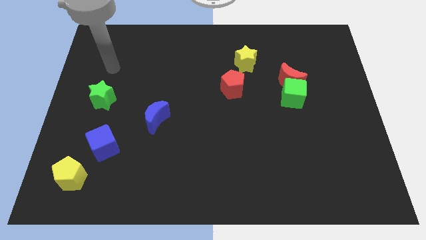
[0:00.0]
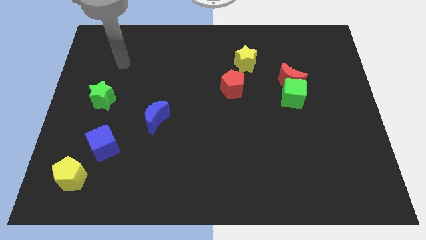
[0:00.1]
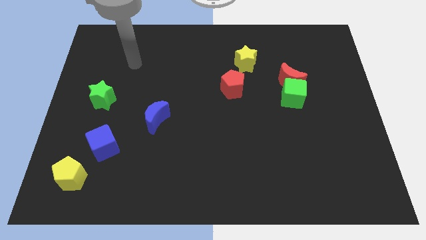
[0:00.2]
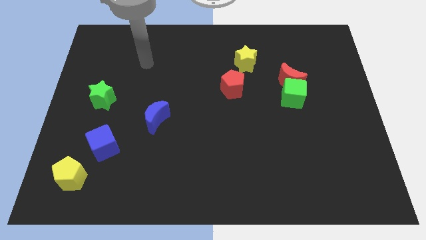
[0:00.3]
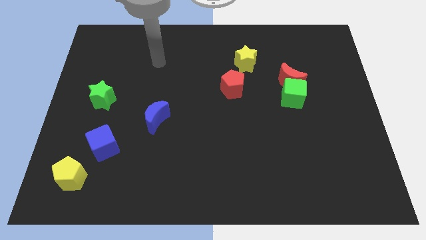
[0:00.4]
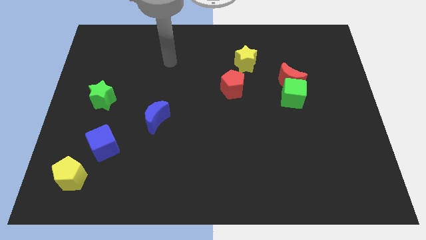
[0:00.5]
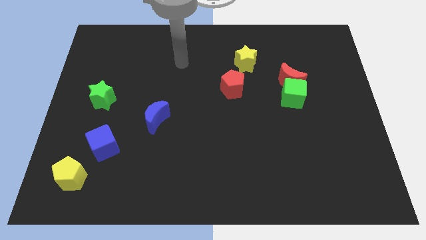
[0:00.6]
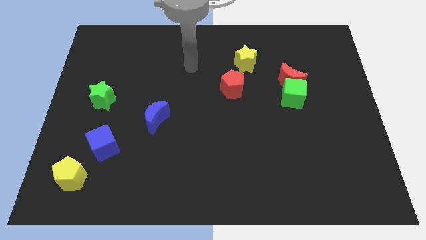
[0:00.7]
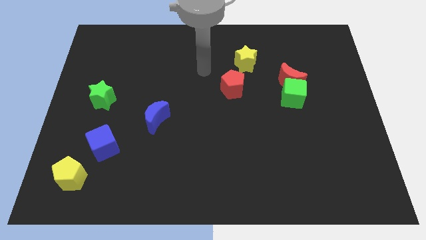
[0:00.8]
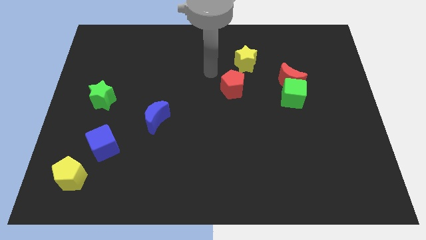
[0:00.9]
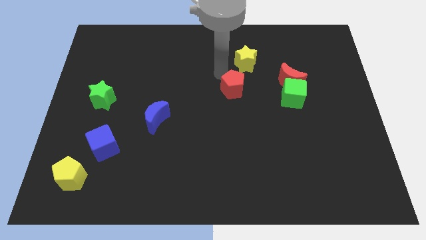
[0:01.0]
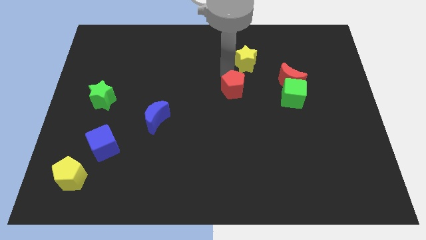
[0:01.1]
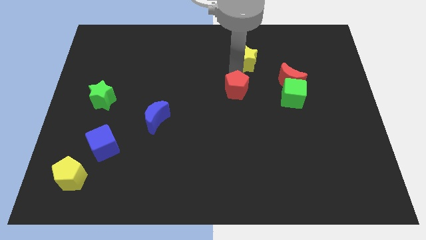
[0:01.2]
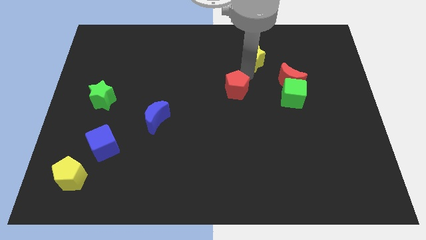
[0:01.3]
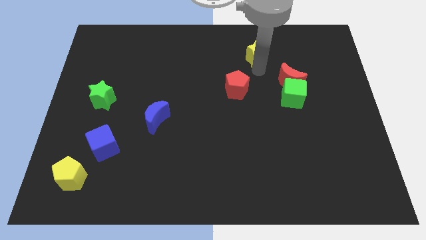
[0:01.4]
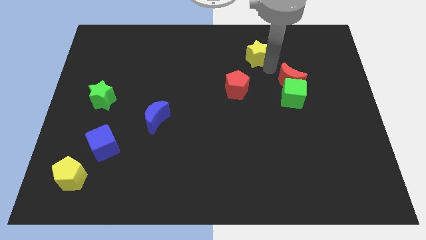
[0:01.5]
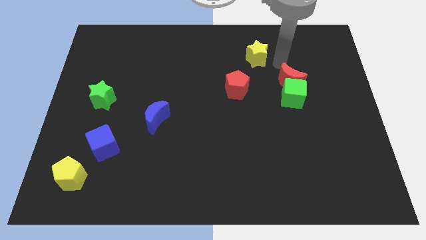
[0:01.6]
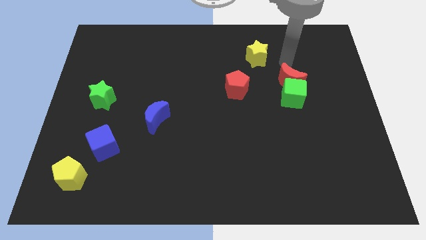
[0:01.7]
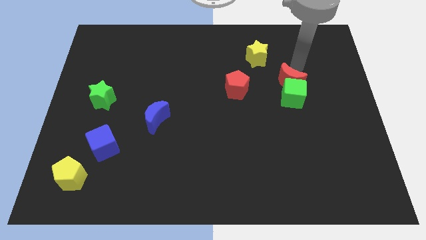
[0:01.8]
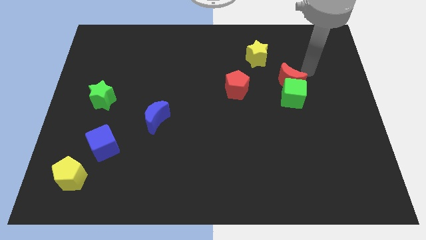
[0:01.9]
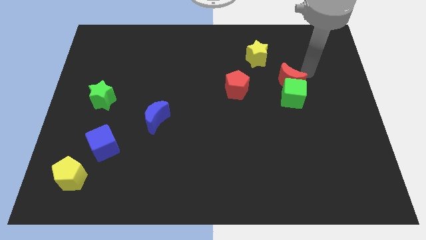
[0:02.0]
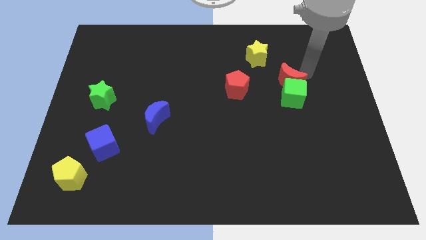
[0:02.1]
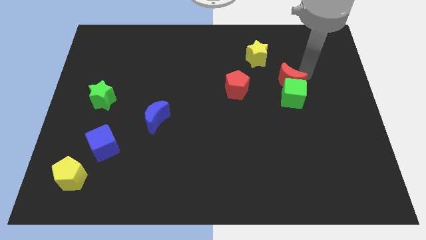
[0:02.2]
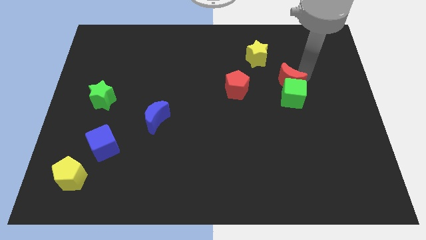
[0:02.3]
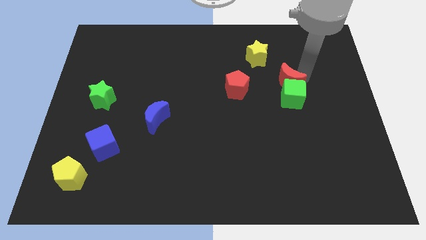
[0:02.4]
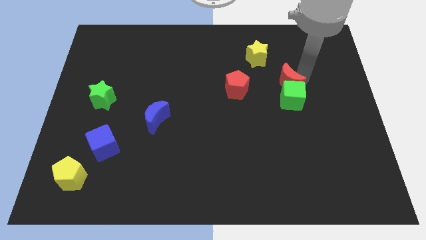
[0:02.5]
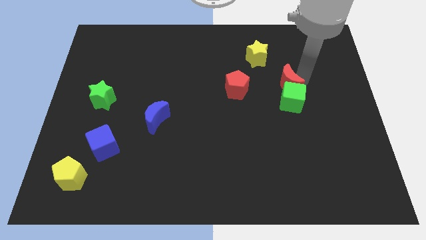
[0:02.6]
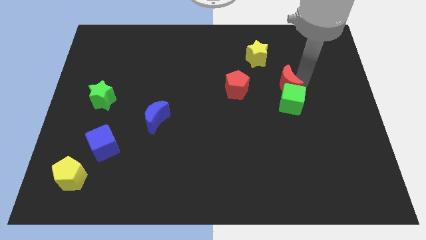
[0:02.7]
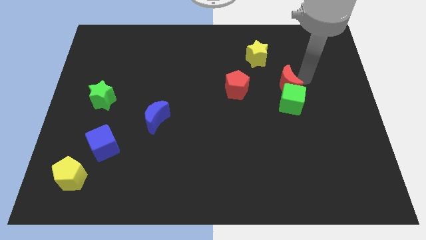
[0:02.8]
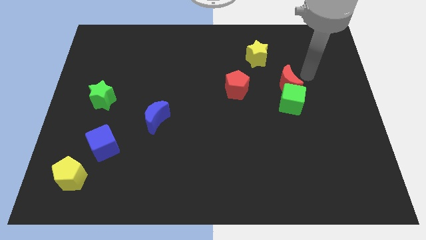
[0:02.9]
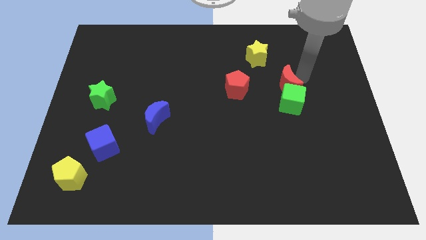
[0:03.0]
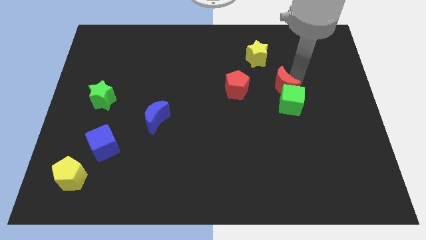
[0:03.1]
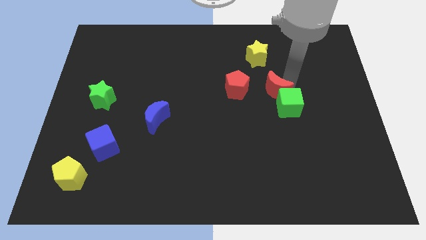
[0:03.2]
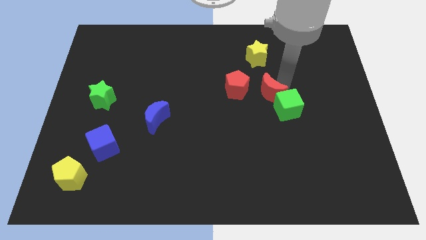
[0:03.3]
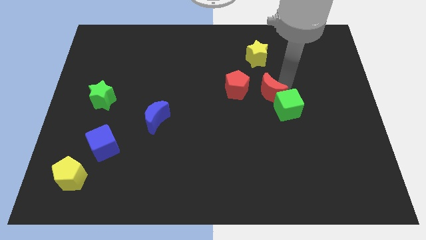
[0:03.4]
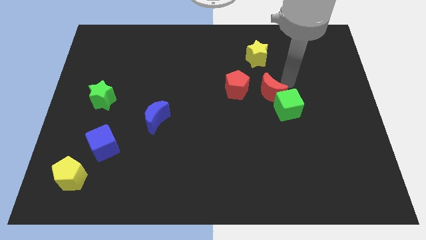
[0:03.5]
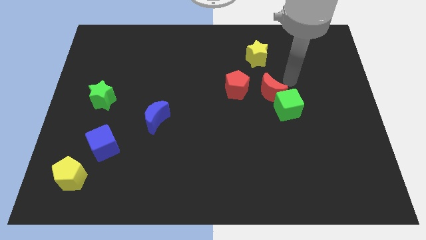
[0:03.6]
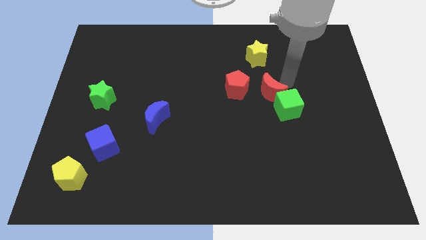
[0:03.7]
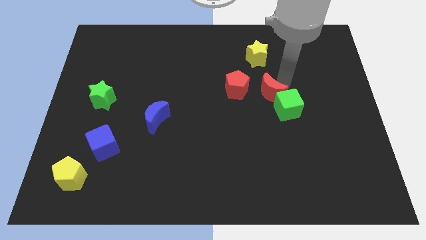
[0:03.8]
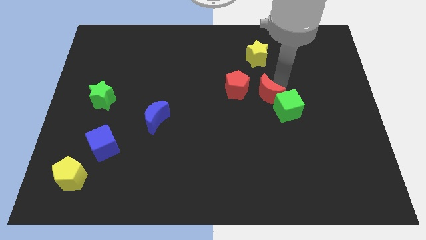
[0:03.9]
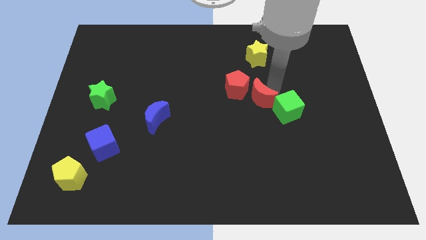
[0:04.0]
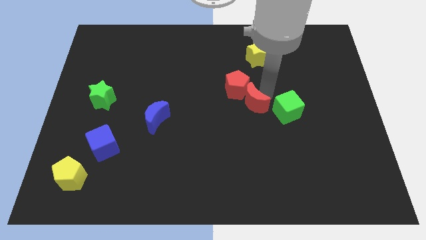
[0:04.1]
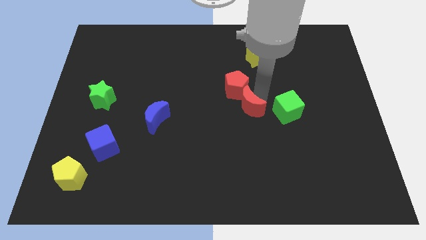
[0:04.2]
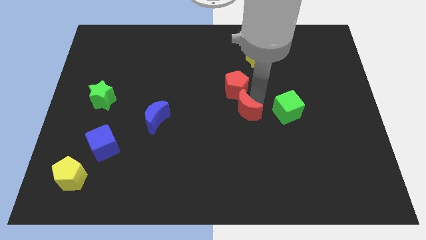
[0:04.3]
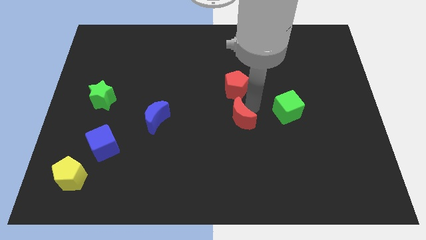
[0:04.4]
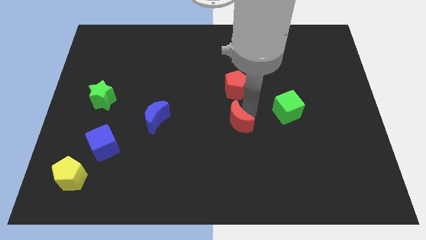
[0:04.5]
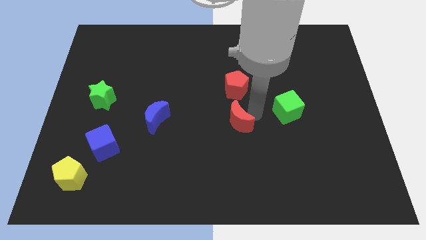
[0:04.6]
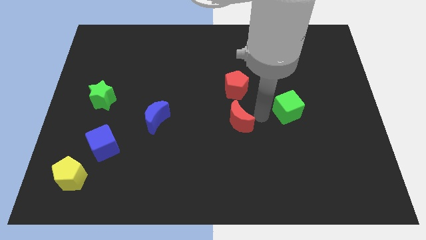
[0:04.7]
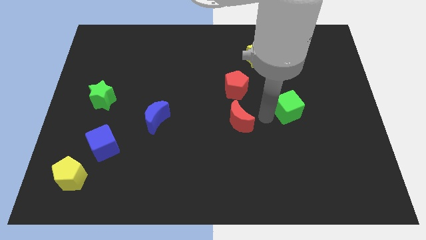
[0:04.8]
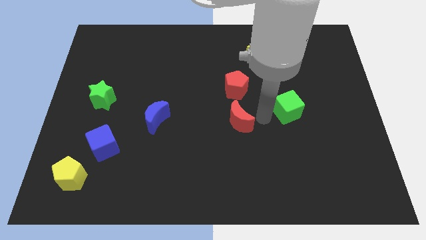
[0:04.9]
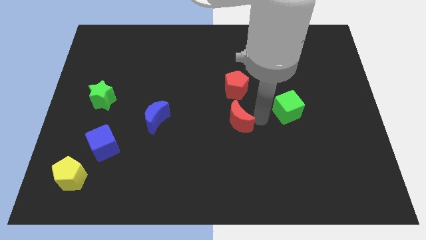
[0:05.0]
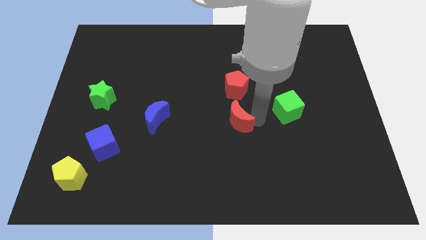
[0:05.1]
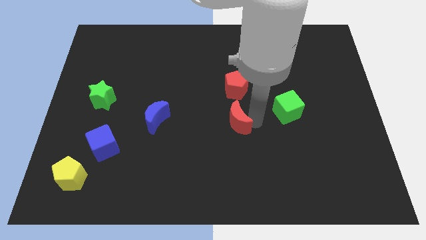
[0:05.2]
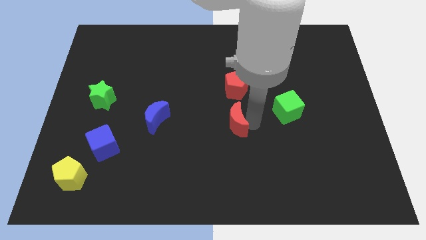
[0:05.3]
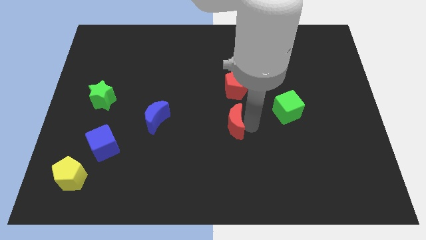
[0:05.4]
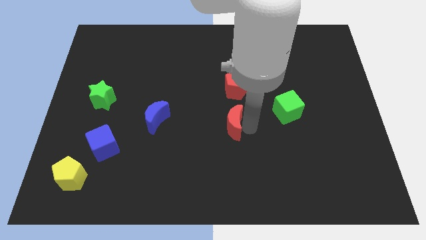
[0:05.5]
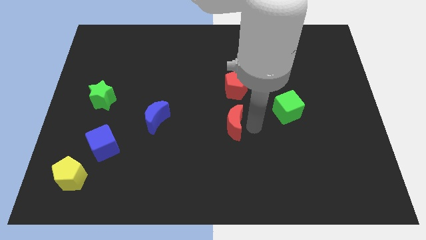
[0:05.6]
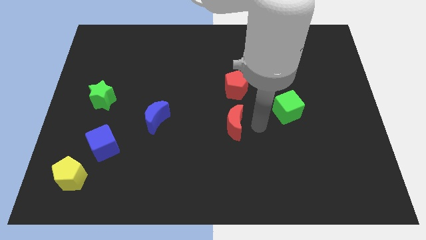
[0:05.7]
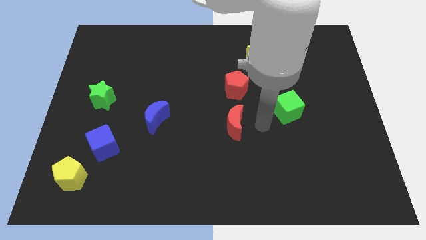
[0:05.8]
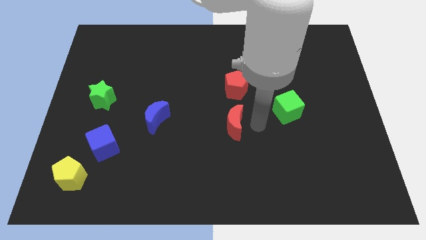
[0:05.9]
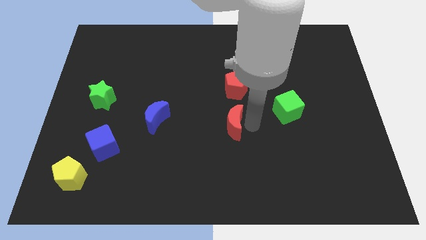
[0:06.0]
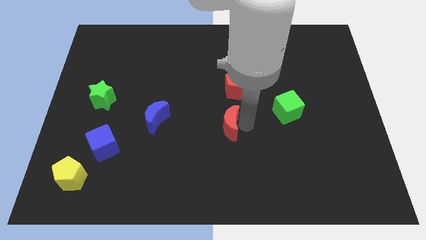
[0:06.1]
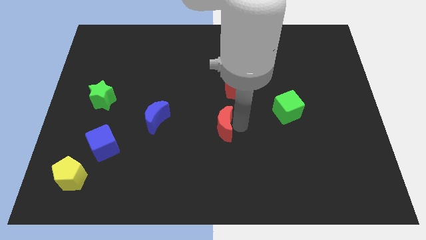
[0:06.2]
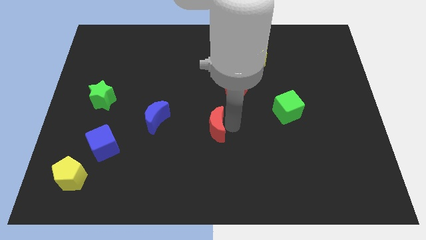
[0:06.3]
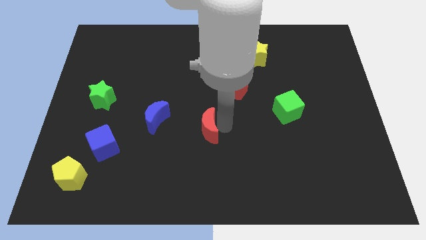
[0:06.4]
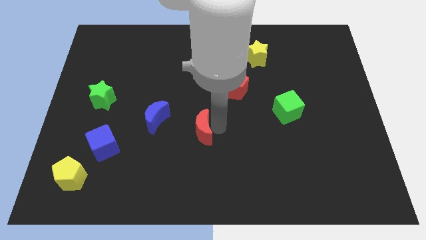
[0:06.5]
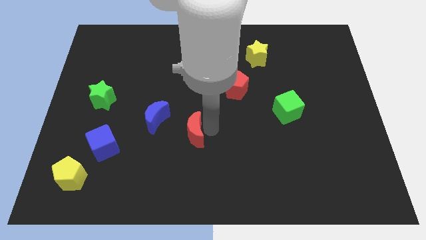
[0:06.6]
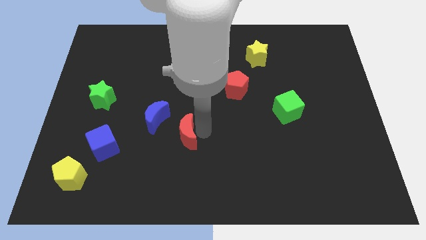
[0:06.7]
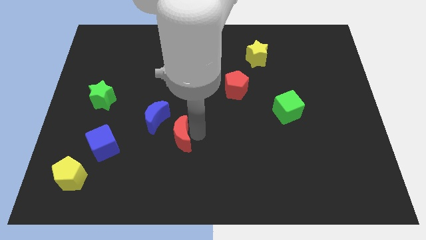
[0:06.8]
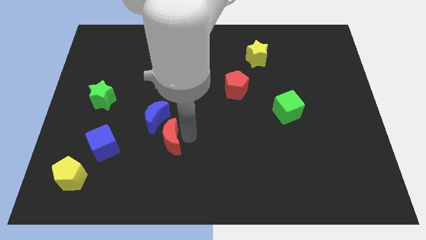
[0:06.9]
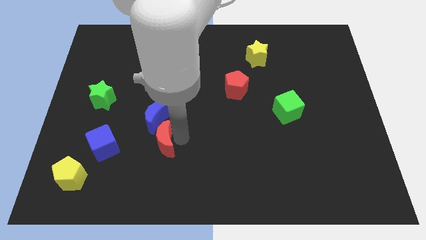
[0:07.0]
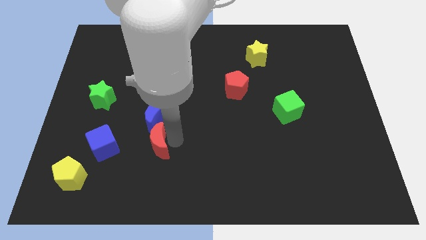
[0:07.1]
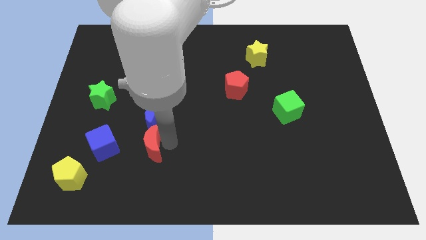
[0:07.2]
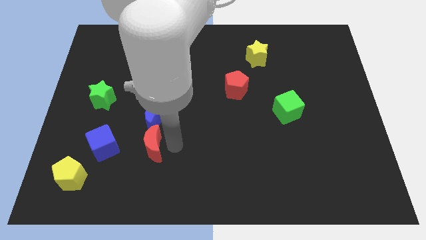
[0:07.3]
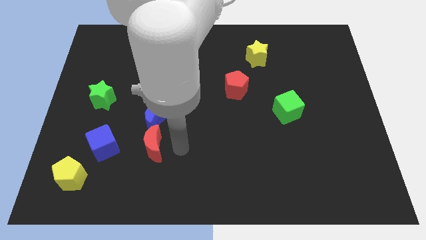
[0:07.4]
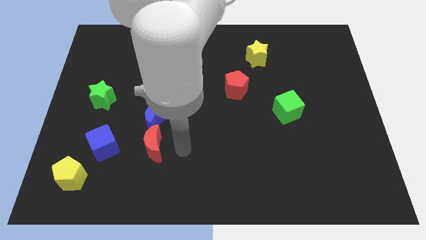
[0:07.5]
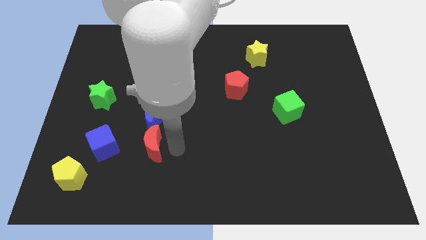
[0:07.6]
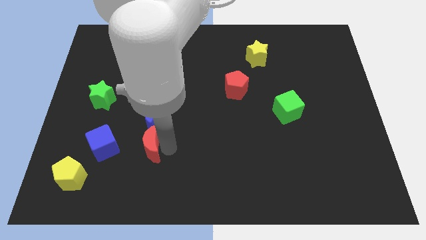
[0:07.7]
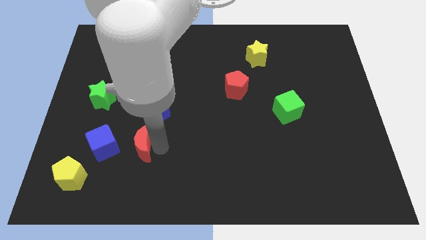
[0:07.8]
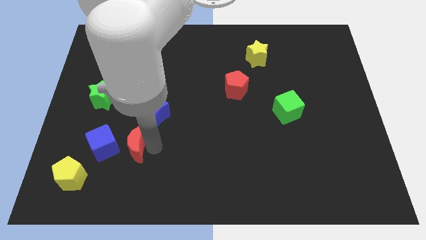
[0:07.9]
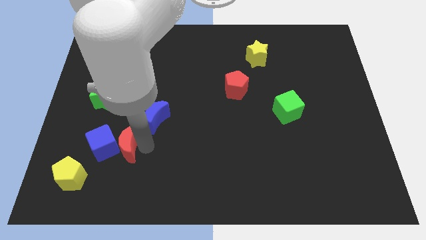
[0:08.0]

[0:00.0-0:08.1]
push the red moon to the blue cube
